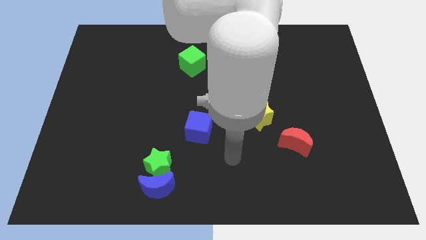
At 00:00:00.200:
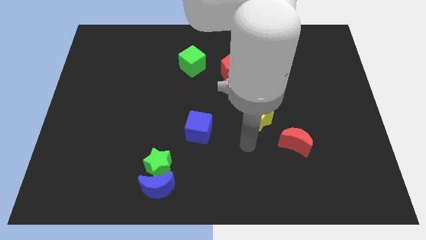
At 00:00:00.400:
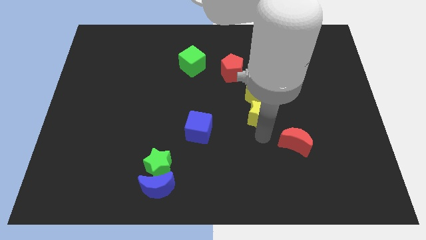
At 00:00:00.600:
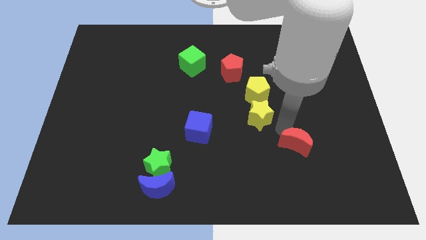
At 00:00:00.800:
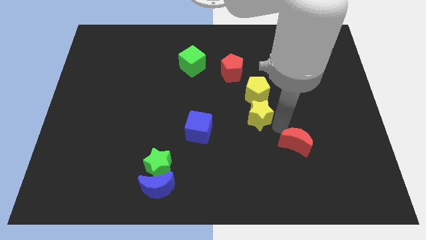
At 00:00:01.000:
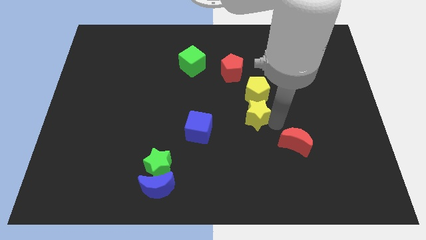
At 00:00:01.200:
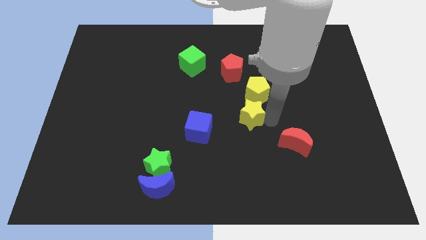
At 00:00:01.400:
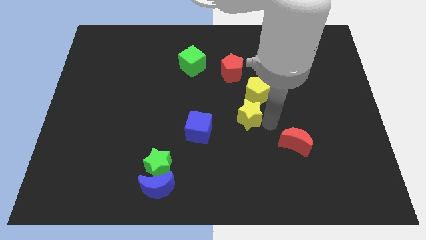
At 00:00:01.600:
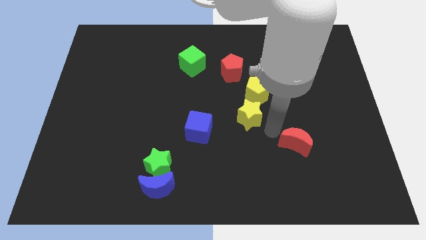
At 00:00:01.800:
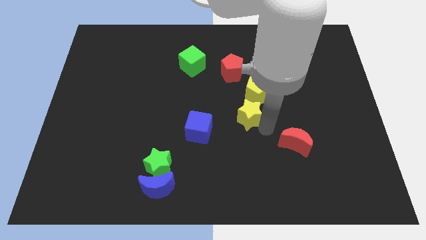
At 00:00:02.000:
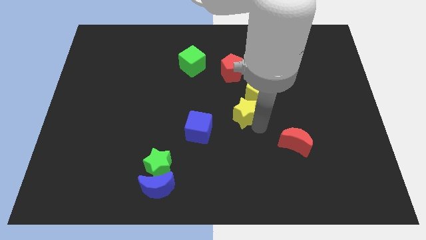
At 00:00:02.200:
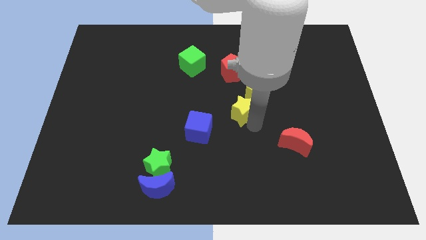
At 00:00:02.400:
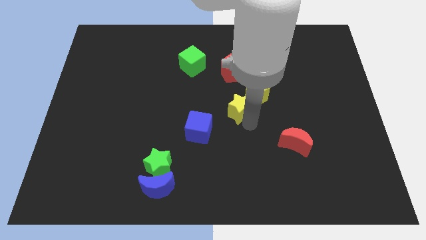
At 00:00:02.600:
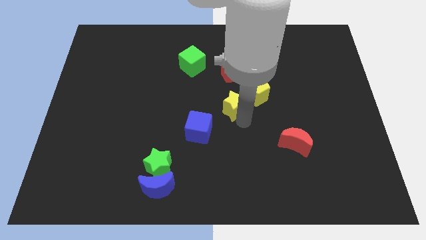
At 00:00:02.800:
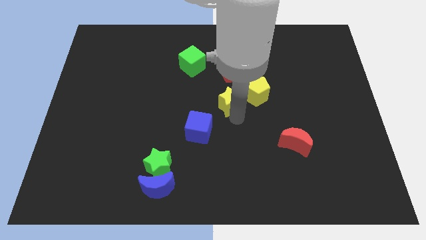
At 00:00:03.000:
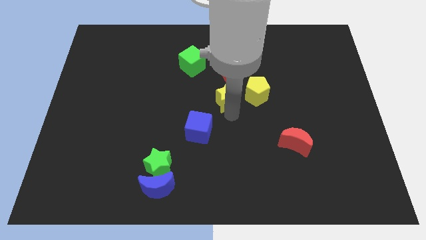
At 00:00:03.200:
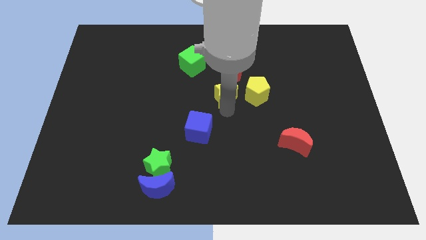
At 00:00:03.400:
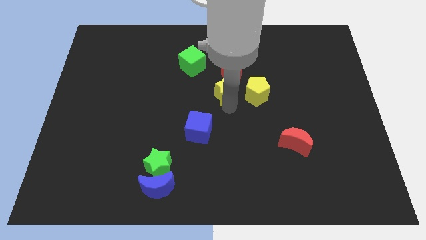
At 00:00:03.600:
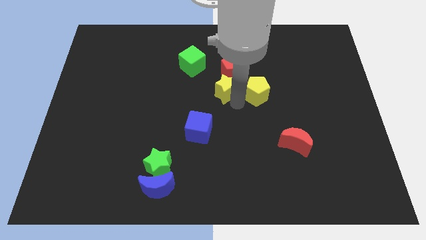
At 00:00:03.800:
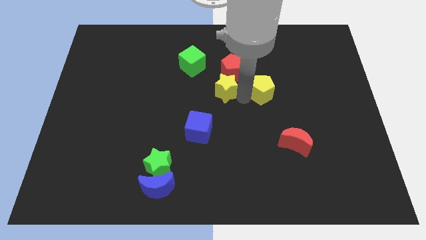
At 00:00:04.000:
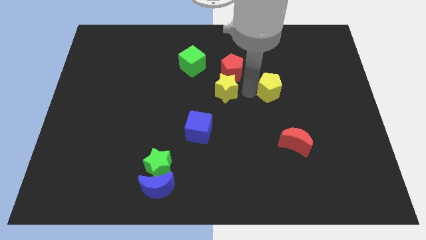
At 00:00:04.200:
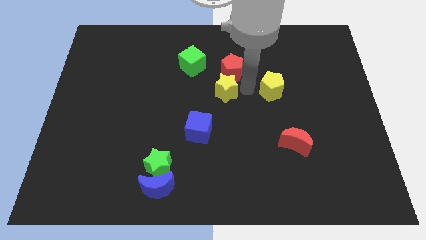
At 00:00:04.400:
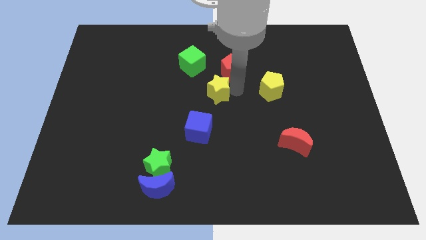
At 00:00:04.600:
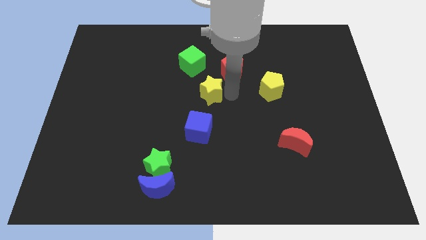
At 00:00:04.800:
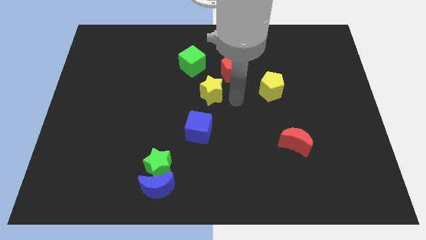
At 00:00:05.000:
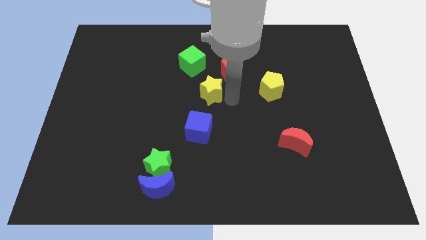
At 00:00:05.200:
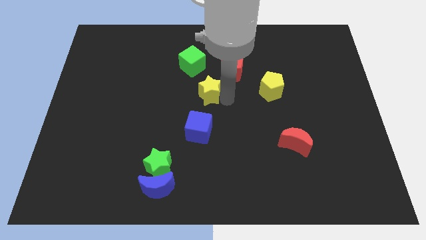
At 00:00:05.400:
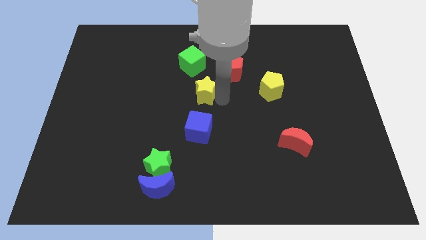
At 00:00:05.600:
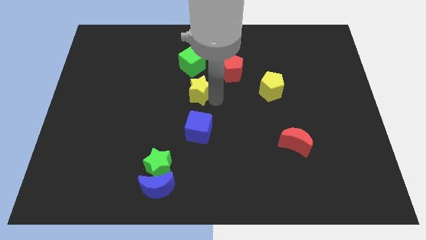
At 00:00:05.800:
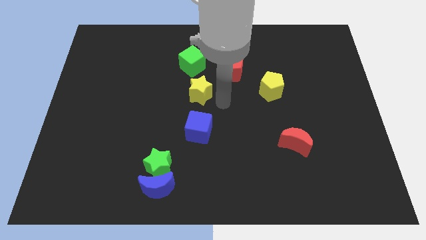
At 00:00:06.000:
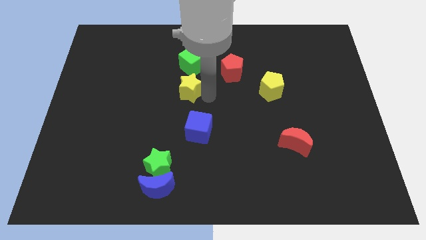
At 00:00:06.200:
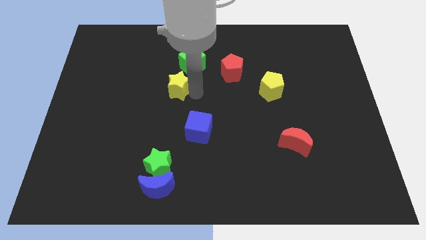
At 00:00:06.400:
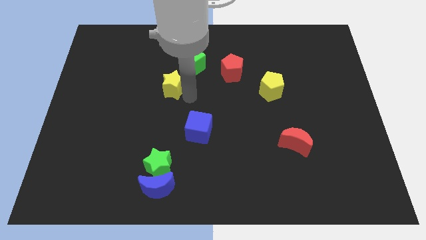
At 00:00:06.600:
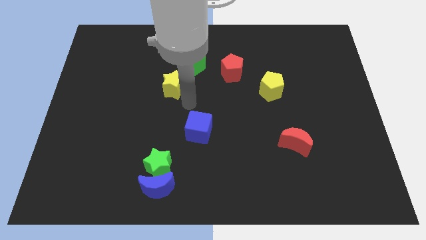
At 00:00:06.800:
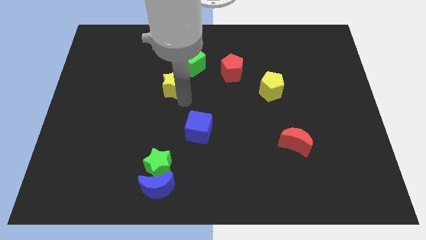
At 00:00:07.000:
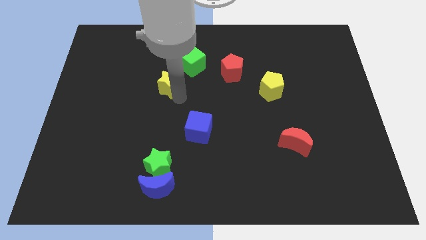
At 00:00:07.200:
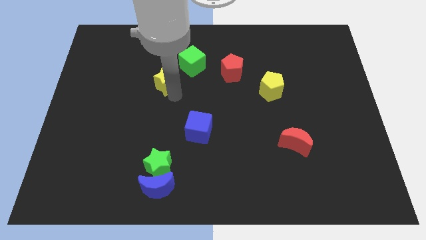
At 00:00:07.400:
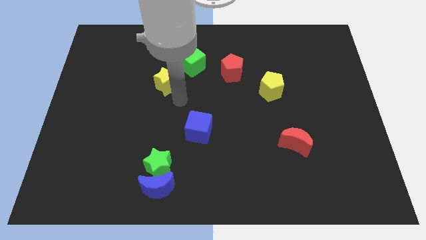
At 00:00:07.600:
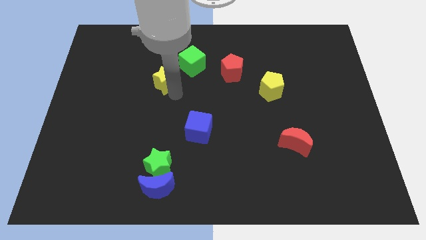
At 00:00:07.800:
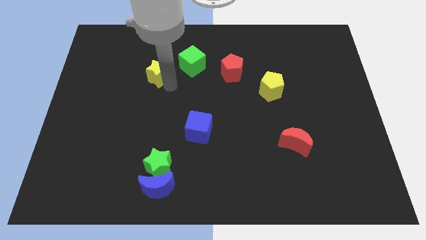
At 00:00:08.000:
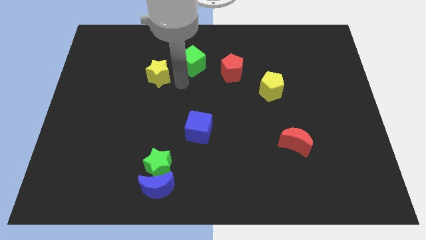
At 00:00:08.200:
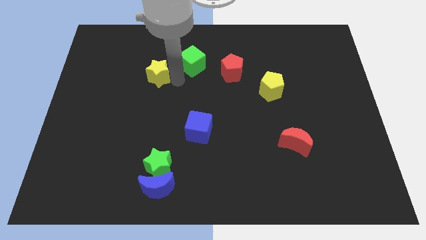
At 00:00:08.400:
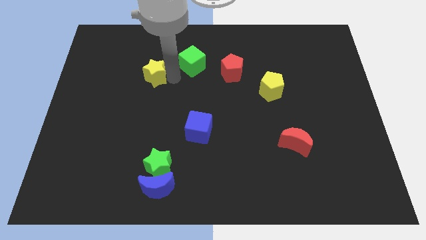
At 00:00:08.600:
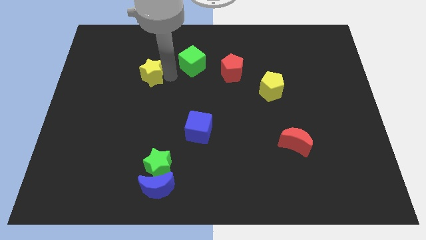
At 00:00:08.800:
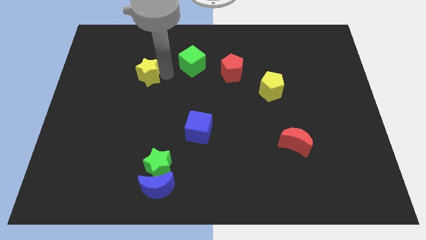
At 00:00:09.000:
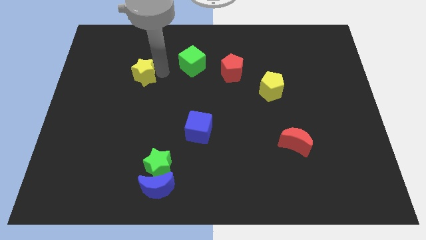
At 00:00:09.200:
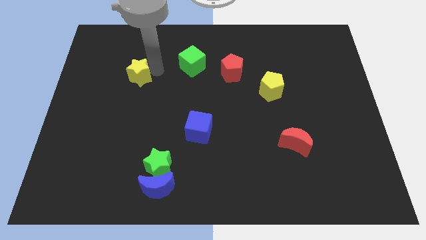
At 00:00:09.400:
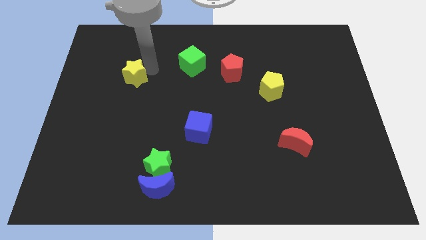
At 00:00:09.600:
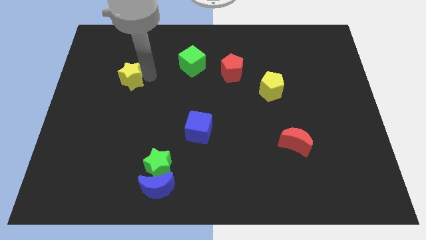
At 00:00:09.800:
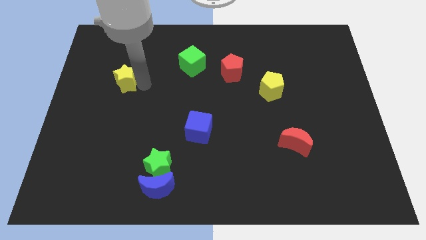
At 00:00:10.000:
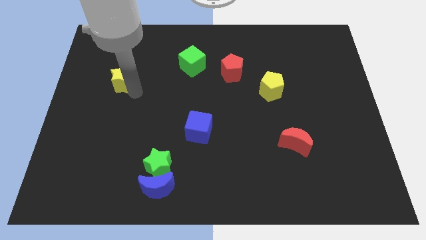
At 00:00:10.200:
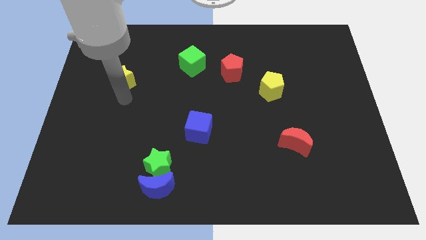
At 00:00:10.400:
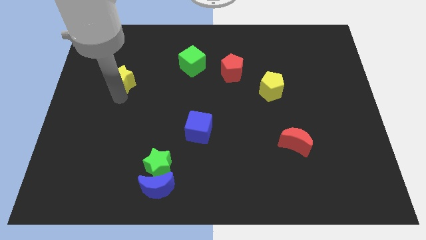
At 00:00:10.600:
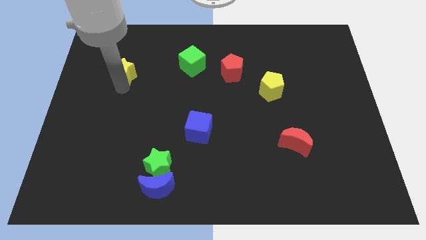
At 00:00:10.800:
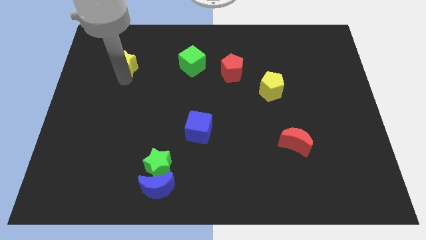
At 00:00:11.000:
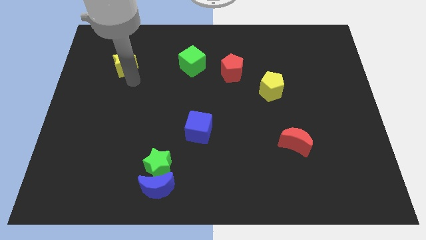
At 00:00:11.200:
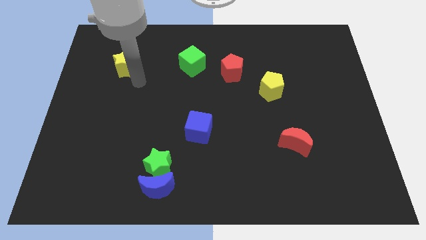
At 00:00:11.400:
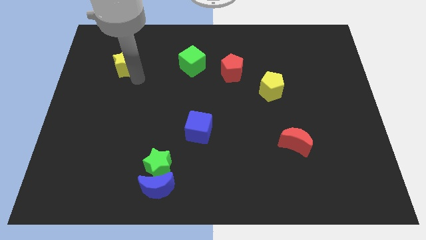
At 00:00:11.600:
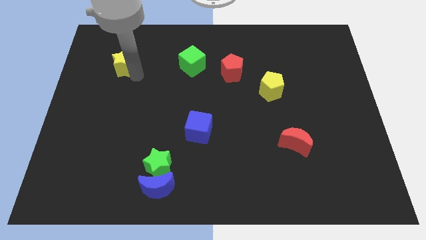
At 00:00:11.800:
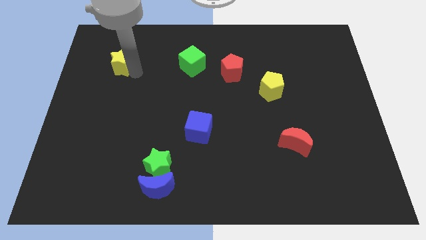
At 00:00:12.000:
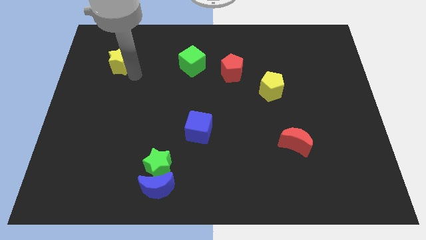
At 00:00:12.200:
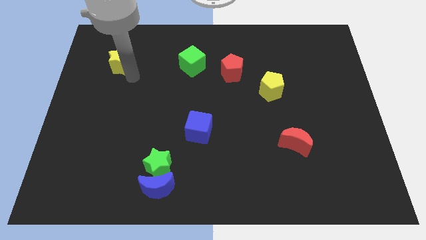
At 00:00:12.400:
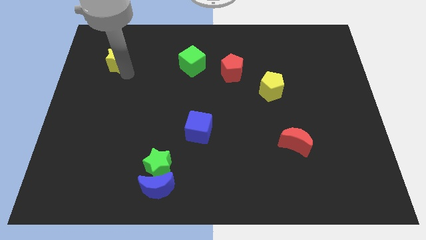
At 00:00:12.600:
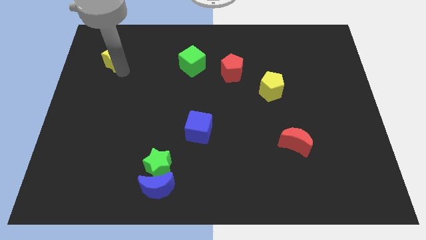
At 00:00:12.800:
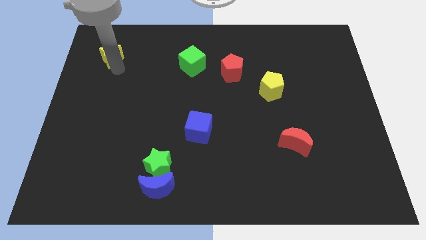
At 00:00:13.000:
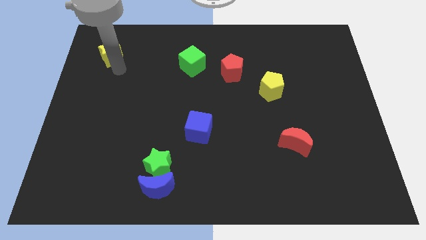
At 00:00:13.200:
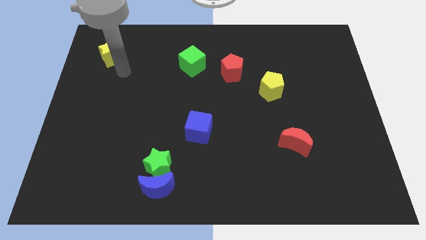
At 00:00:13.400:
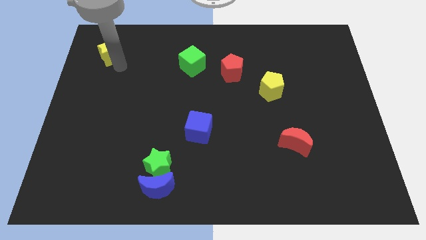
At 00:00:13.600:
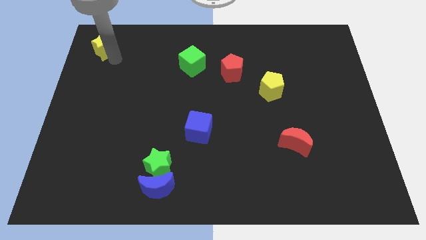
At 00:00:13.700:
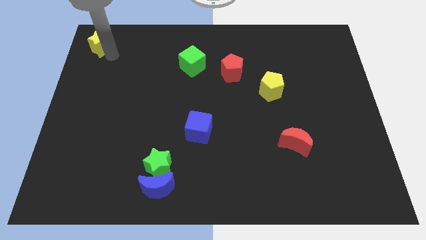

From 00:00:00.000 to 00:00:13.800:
push the yellow star to the top left
